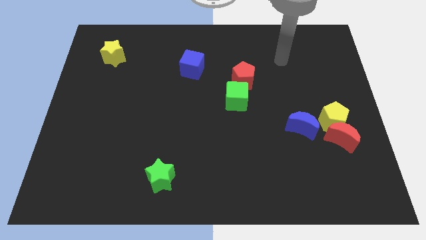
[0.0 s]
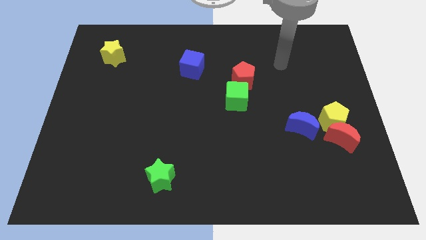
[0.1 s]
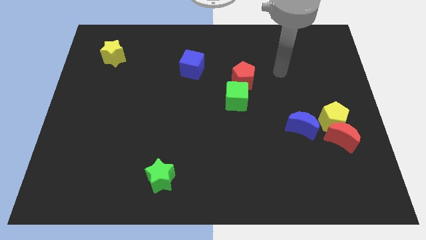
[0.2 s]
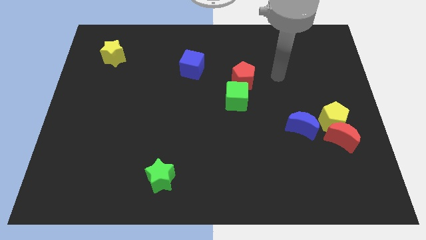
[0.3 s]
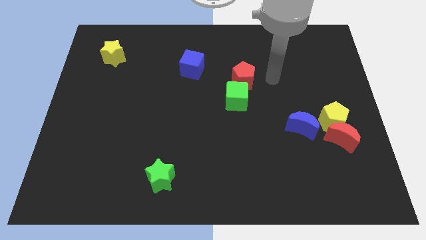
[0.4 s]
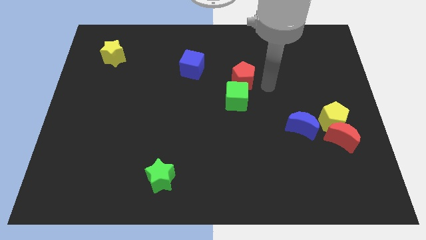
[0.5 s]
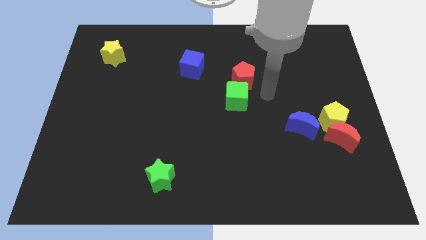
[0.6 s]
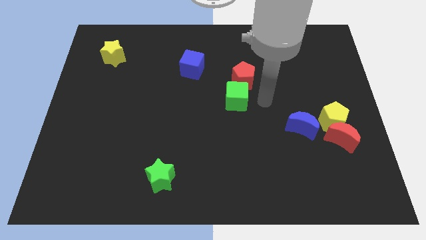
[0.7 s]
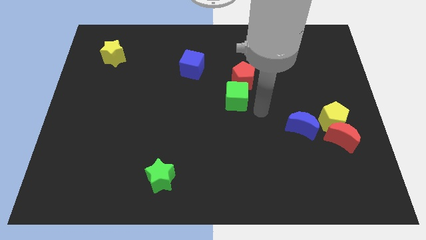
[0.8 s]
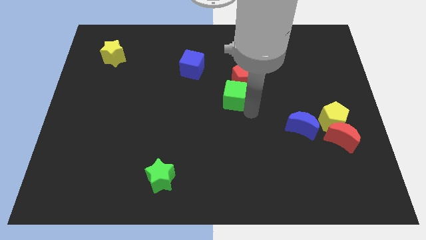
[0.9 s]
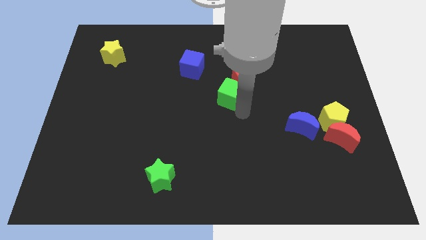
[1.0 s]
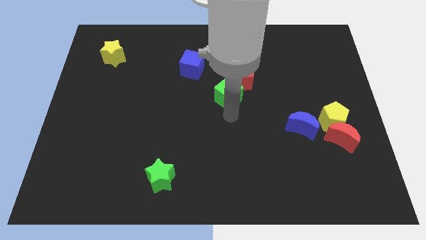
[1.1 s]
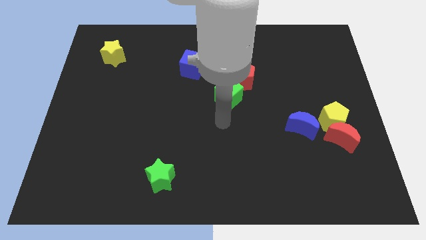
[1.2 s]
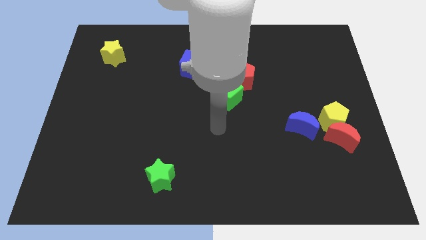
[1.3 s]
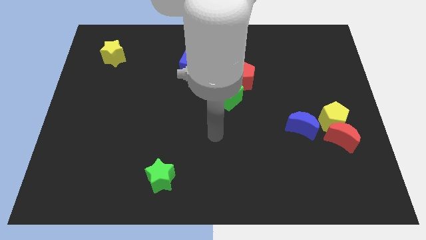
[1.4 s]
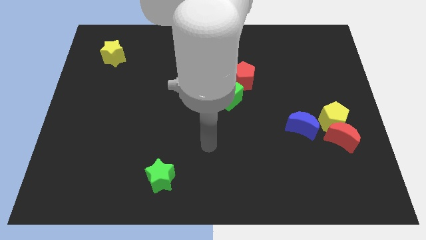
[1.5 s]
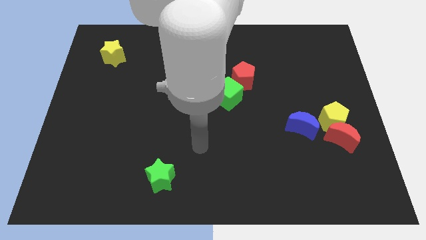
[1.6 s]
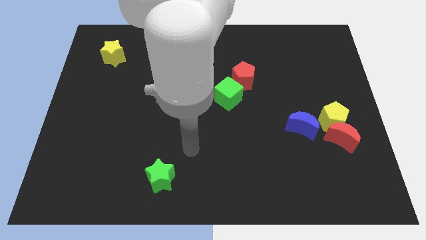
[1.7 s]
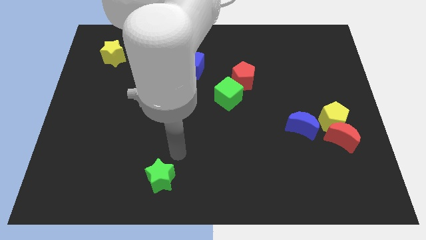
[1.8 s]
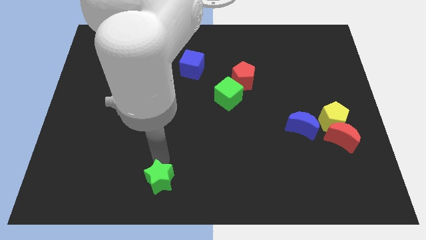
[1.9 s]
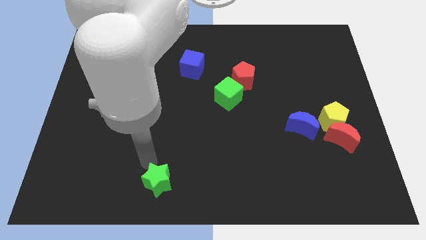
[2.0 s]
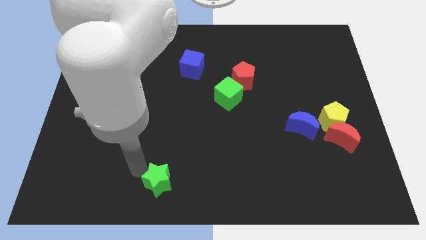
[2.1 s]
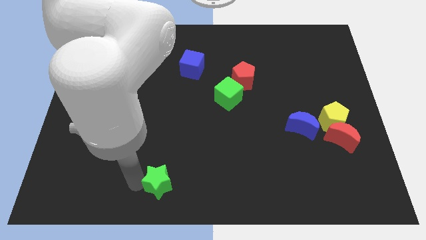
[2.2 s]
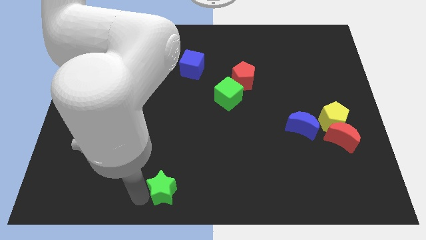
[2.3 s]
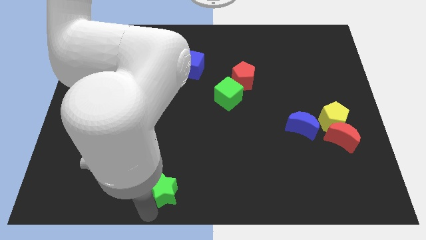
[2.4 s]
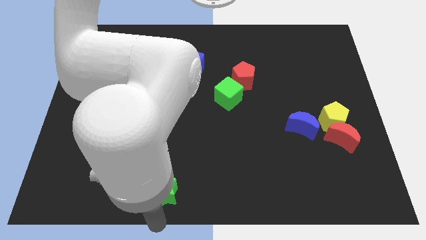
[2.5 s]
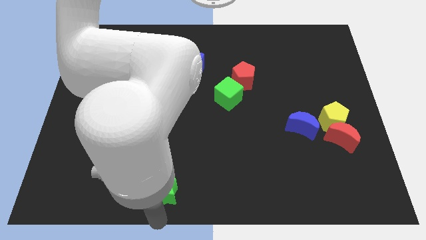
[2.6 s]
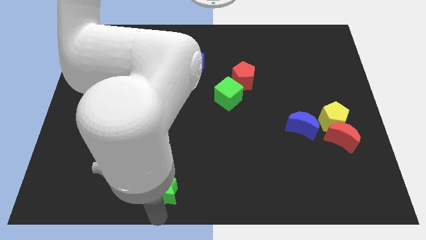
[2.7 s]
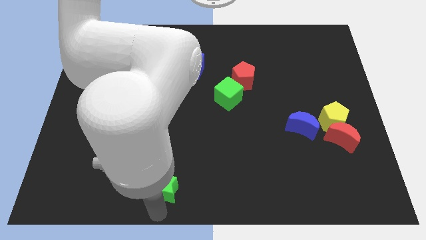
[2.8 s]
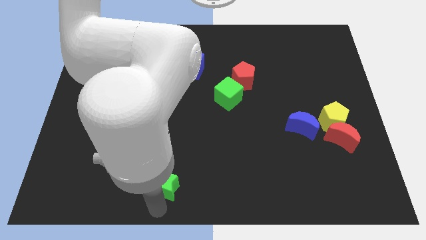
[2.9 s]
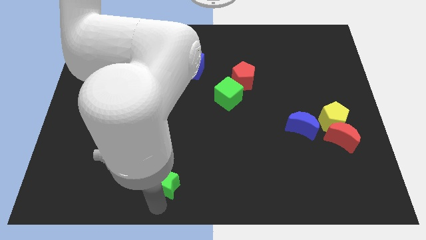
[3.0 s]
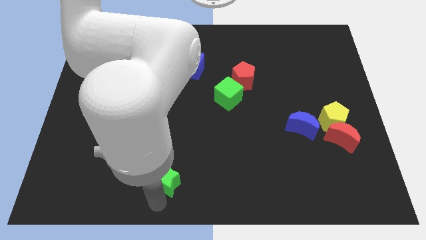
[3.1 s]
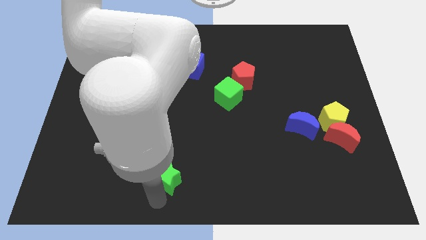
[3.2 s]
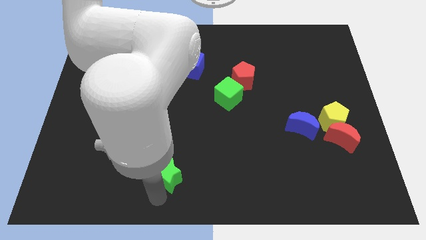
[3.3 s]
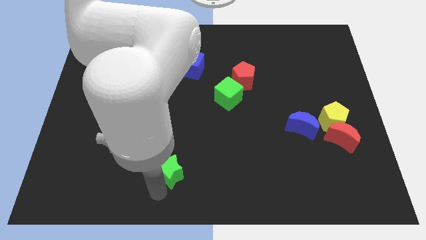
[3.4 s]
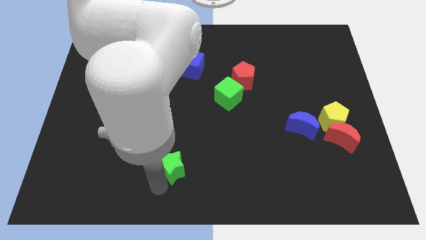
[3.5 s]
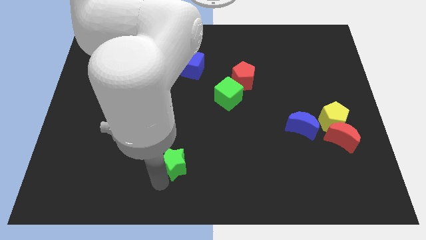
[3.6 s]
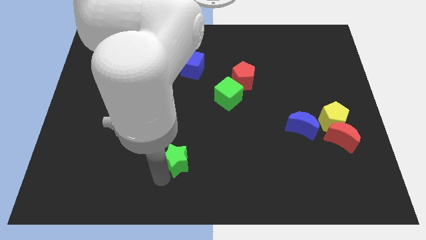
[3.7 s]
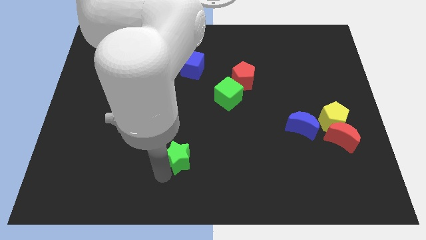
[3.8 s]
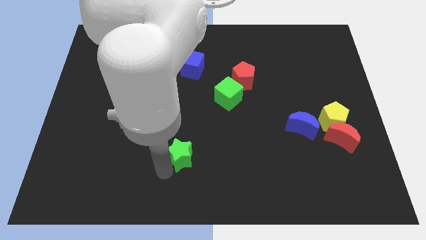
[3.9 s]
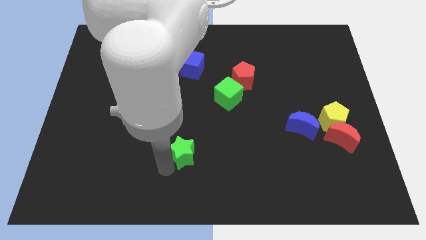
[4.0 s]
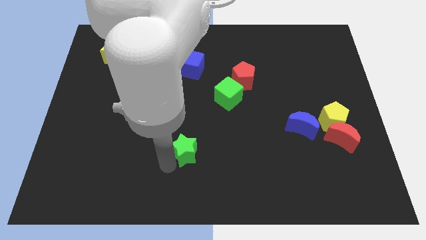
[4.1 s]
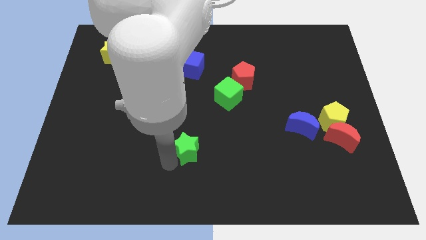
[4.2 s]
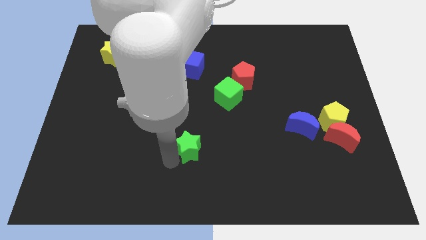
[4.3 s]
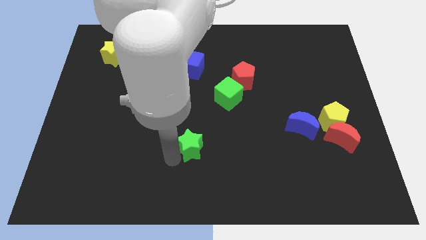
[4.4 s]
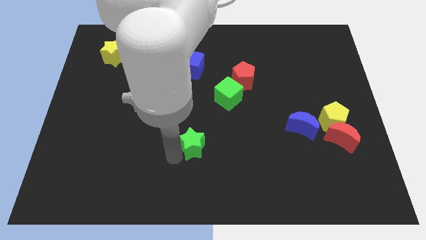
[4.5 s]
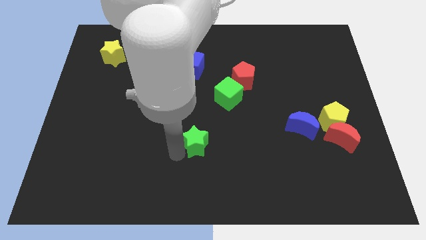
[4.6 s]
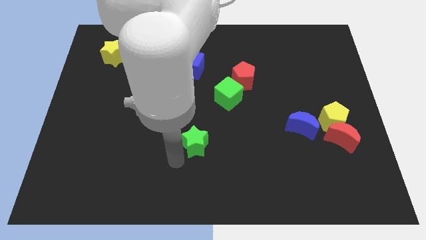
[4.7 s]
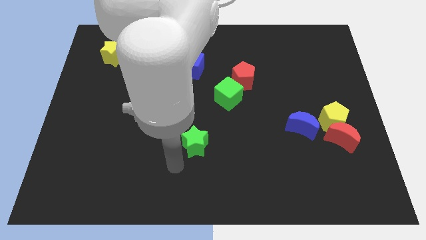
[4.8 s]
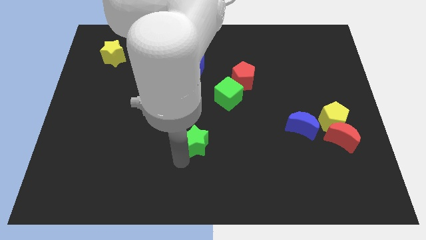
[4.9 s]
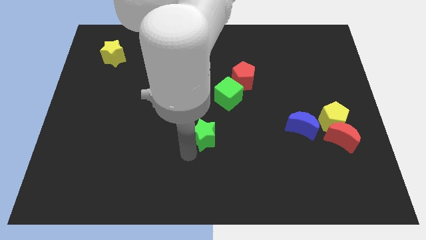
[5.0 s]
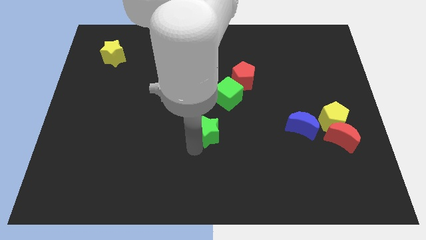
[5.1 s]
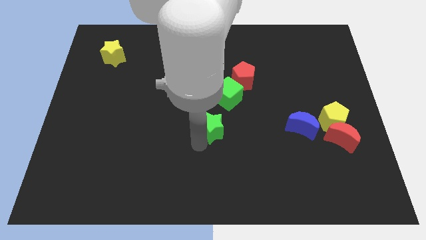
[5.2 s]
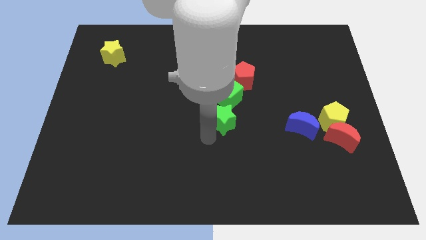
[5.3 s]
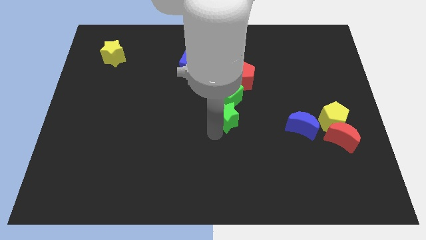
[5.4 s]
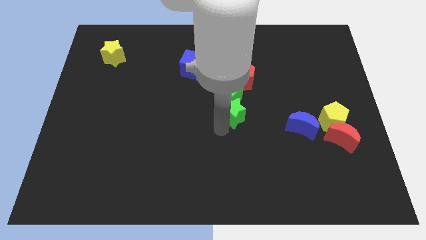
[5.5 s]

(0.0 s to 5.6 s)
move the green star to the green cube

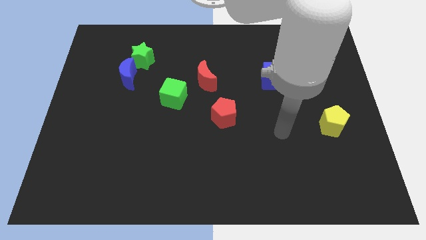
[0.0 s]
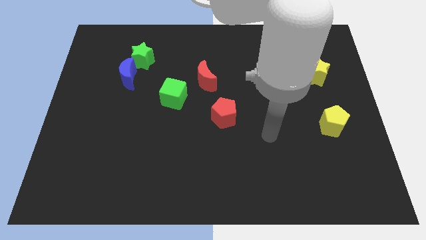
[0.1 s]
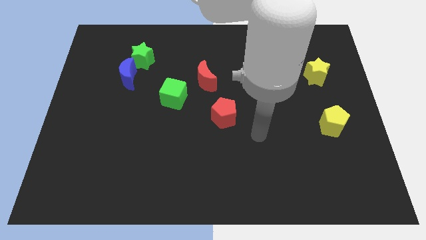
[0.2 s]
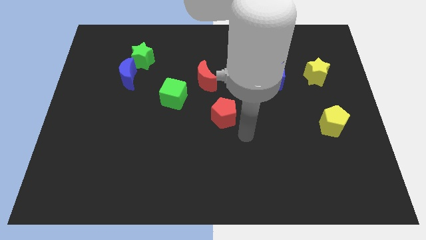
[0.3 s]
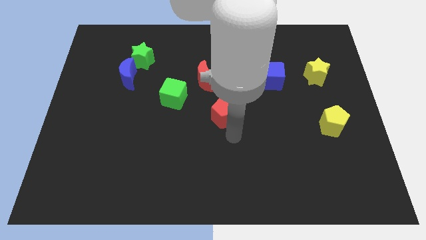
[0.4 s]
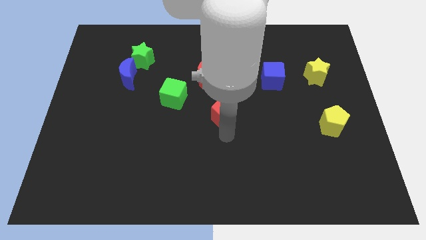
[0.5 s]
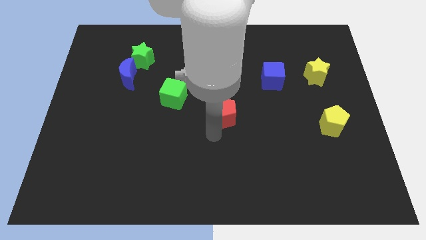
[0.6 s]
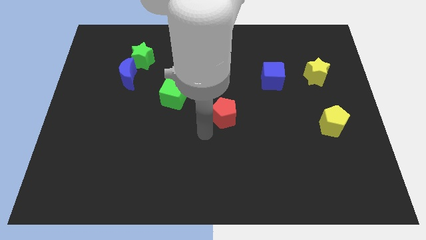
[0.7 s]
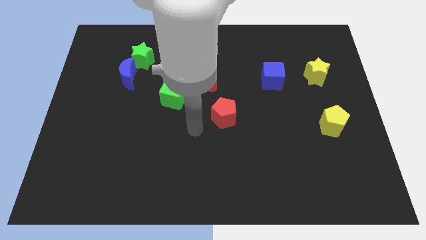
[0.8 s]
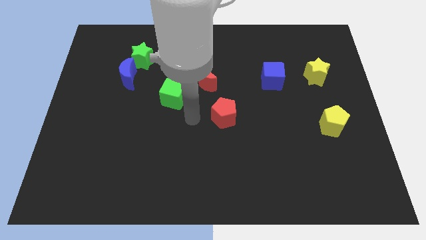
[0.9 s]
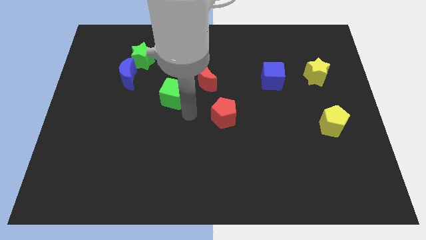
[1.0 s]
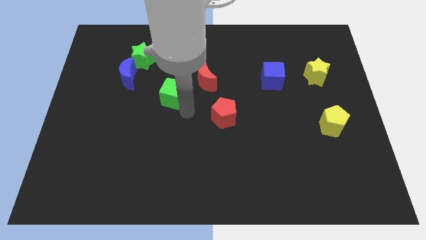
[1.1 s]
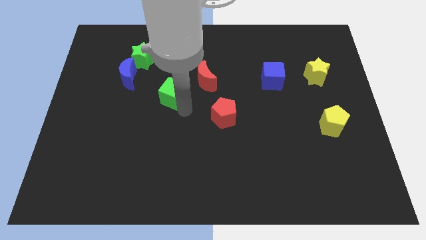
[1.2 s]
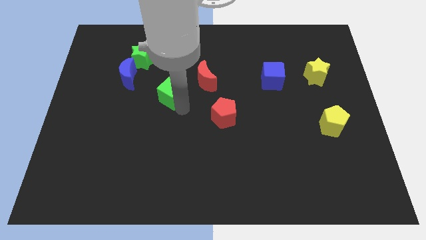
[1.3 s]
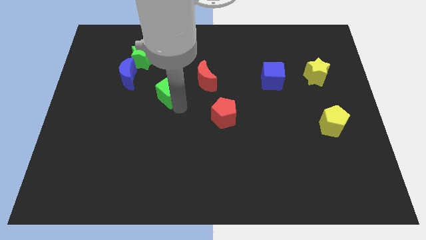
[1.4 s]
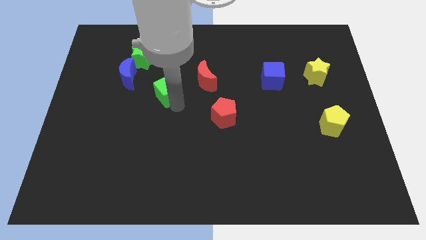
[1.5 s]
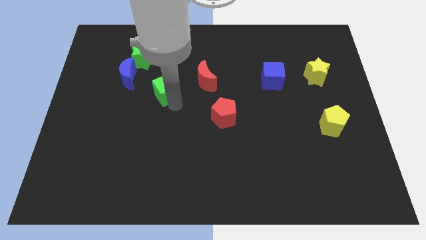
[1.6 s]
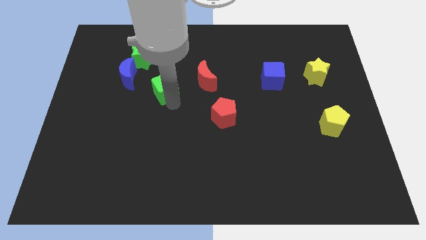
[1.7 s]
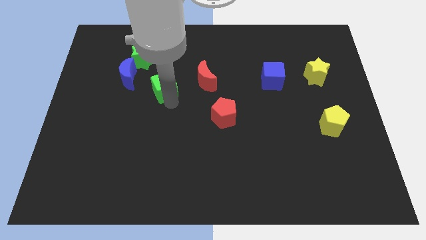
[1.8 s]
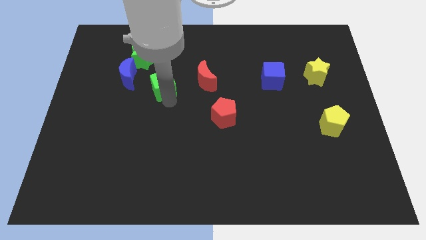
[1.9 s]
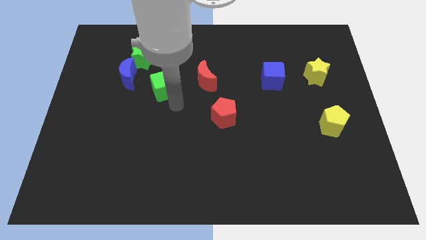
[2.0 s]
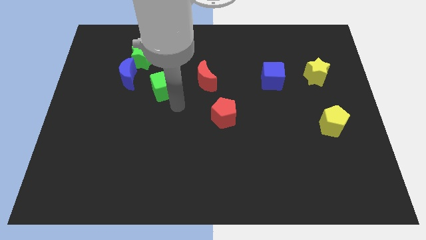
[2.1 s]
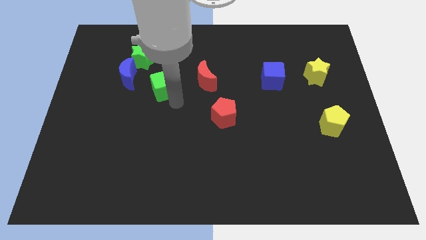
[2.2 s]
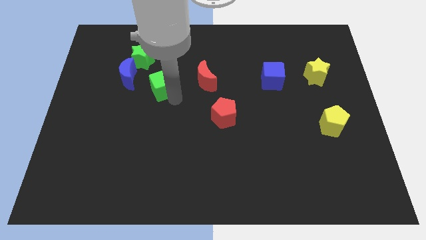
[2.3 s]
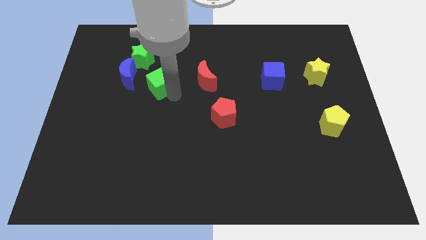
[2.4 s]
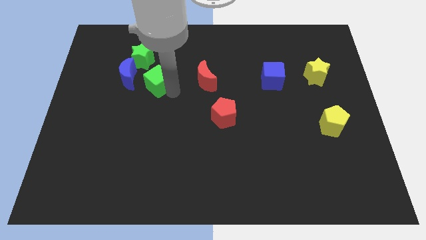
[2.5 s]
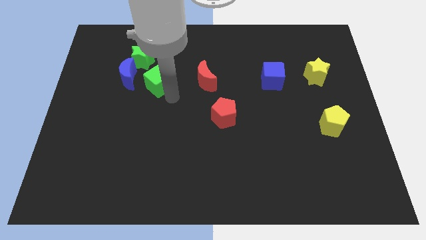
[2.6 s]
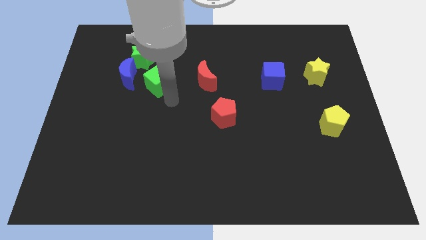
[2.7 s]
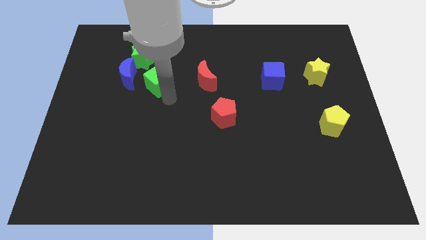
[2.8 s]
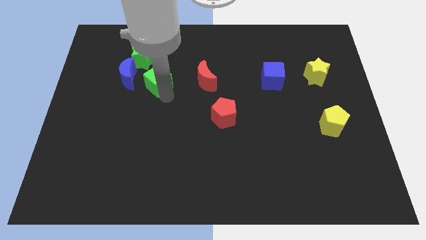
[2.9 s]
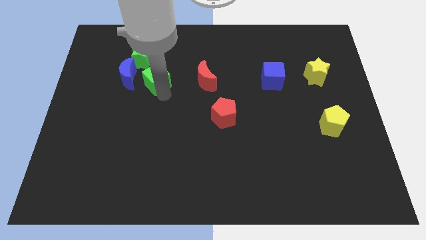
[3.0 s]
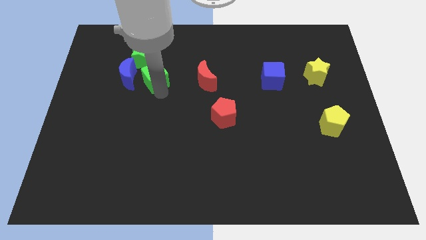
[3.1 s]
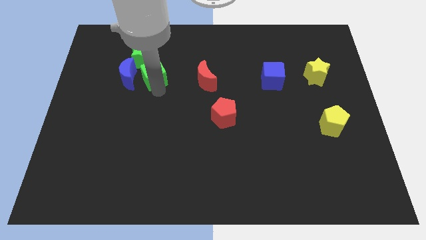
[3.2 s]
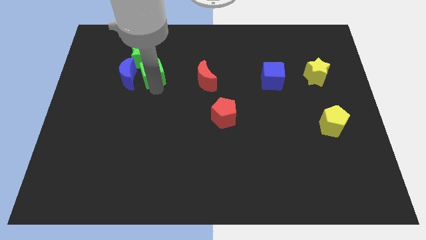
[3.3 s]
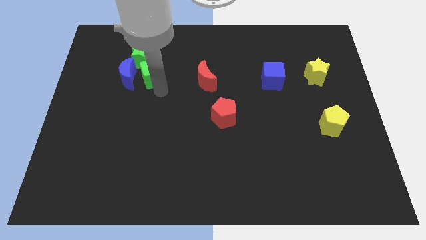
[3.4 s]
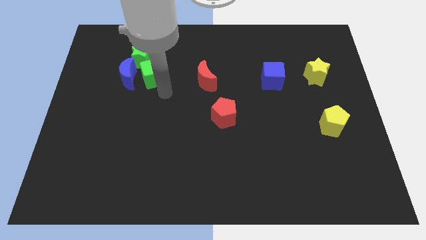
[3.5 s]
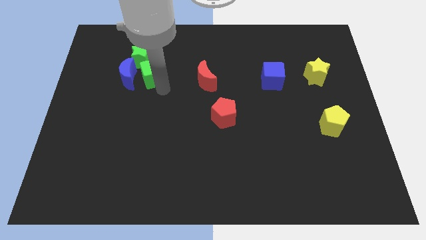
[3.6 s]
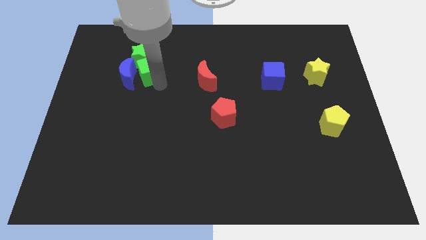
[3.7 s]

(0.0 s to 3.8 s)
put the green cube next to the green star
